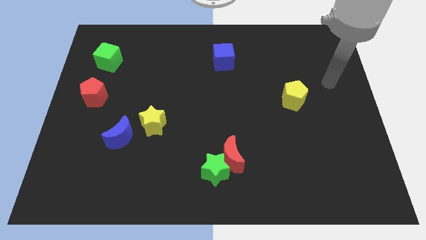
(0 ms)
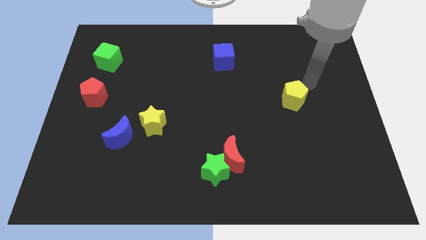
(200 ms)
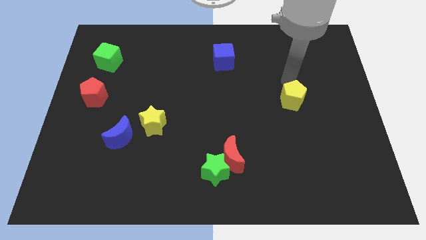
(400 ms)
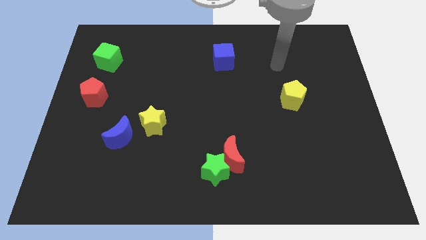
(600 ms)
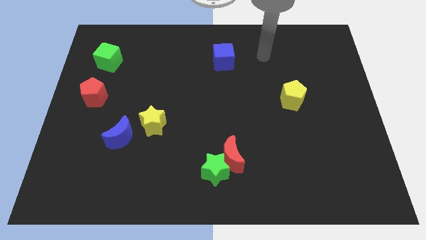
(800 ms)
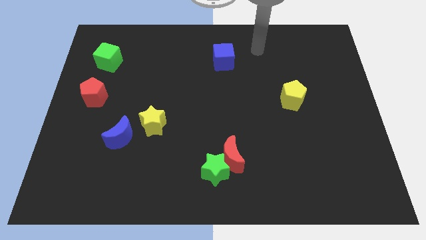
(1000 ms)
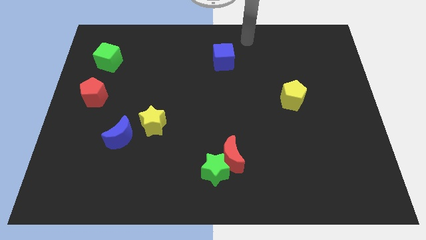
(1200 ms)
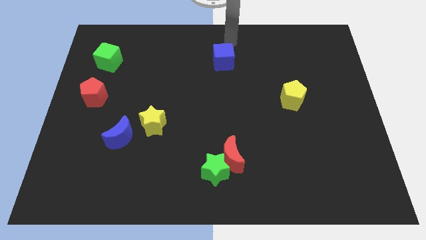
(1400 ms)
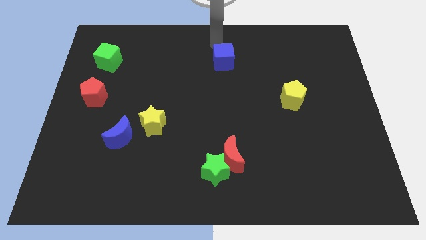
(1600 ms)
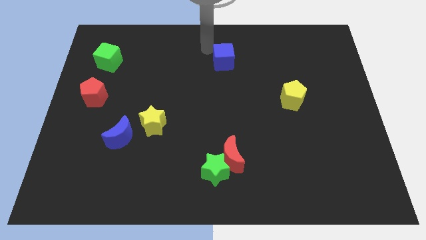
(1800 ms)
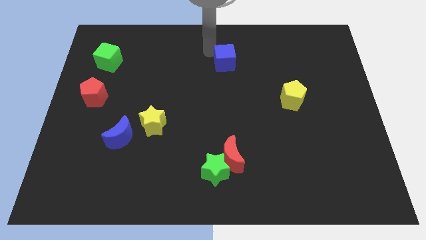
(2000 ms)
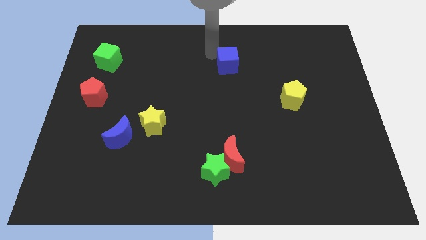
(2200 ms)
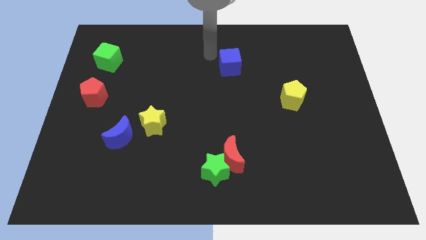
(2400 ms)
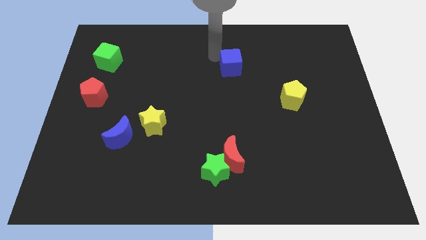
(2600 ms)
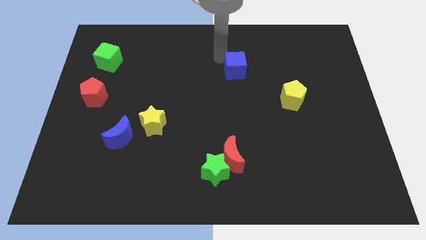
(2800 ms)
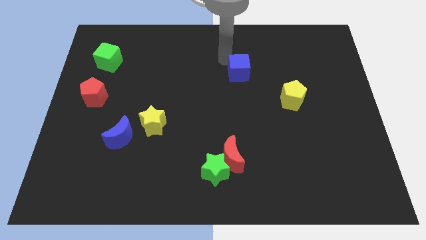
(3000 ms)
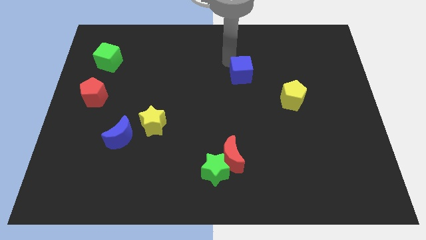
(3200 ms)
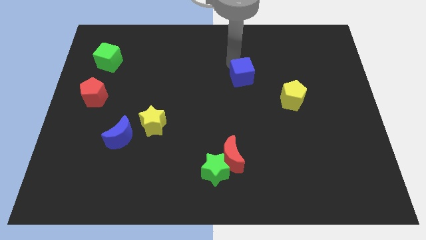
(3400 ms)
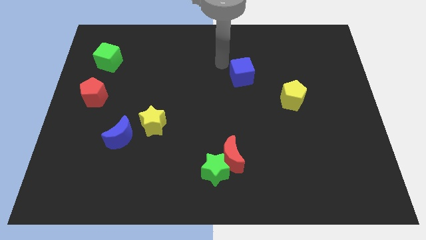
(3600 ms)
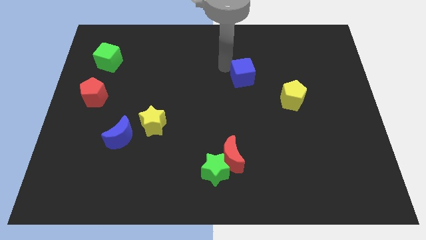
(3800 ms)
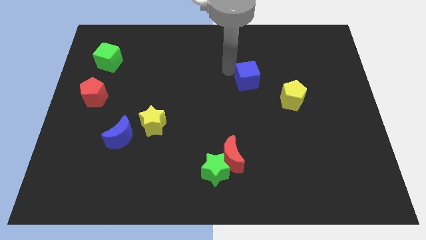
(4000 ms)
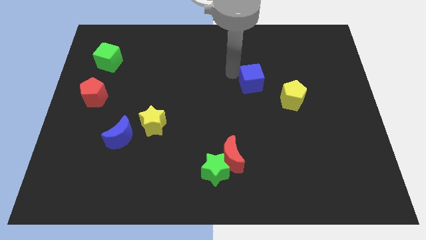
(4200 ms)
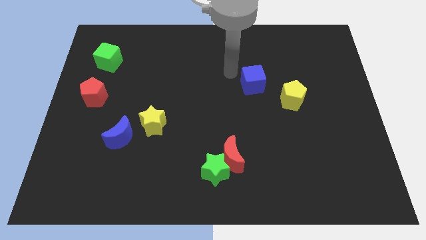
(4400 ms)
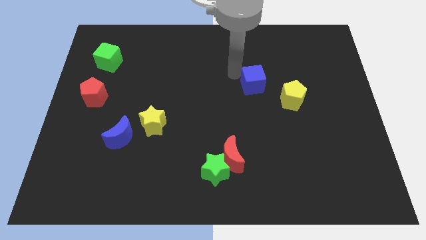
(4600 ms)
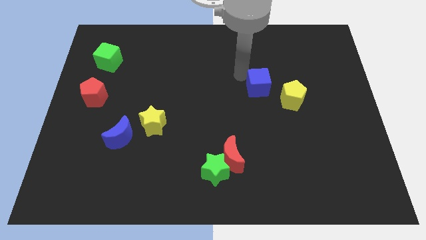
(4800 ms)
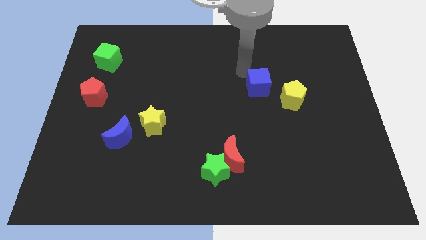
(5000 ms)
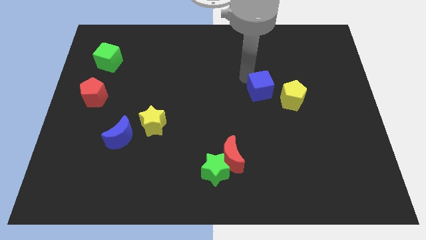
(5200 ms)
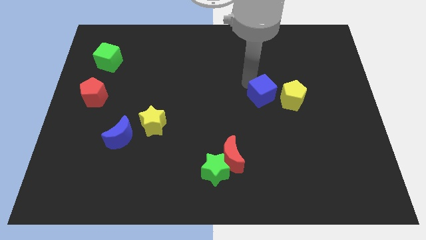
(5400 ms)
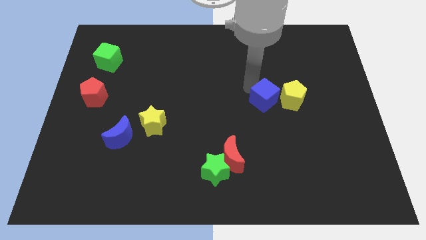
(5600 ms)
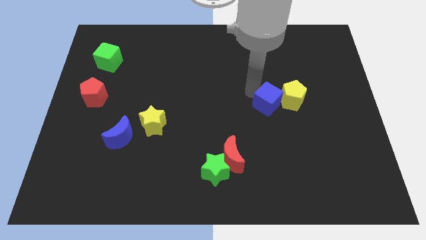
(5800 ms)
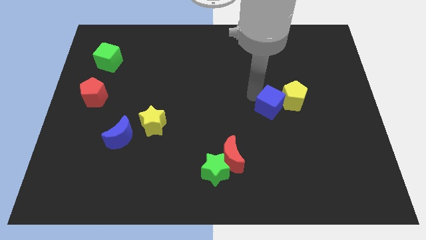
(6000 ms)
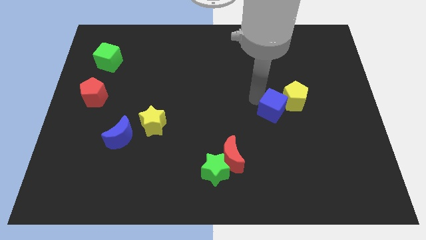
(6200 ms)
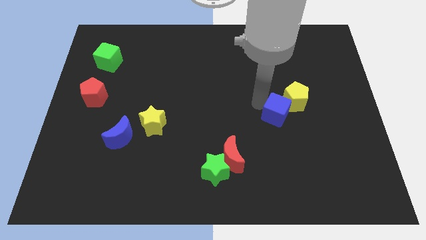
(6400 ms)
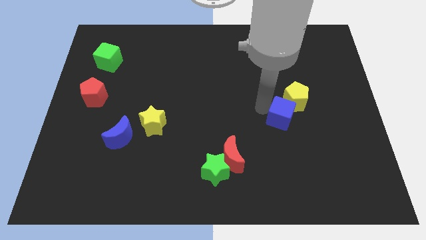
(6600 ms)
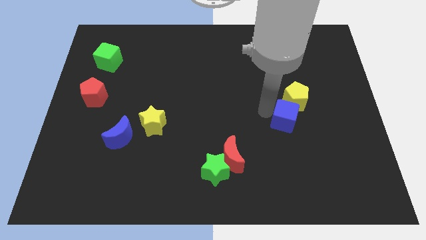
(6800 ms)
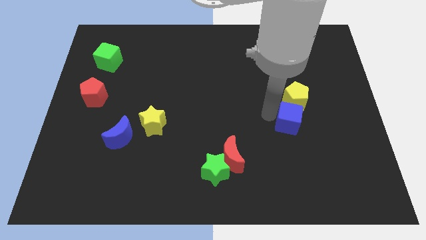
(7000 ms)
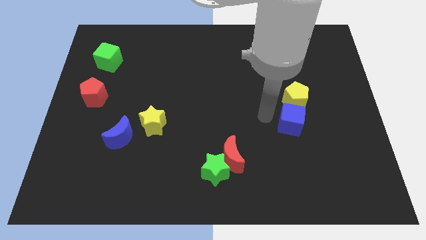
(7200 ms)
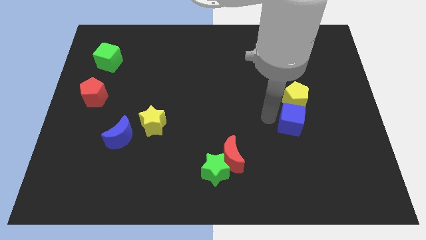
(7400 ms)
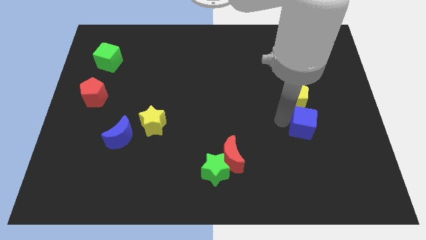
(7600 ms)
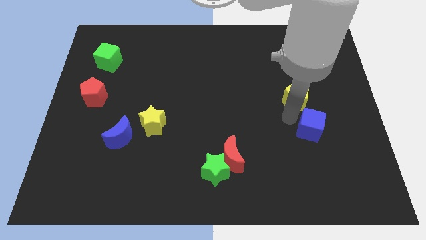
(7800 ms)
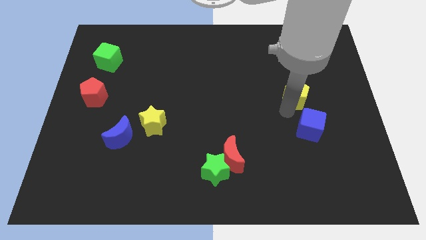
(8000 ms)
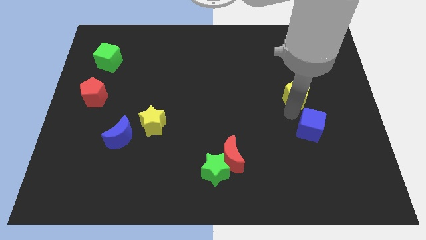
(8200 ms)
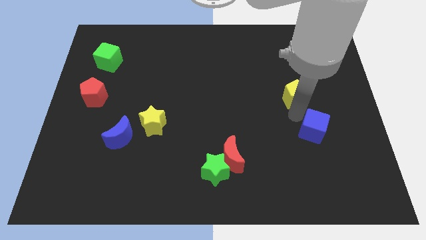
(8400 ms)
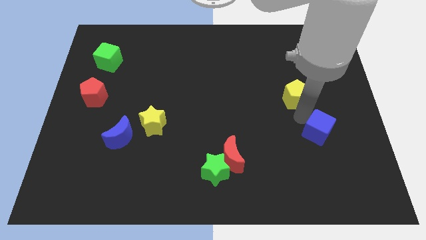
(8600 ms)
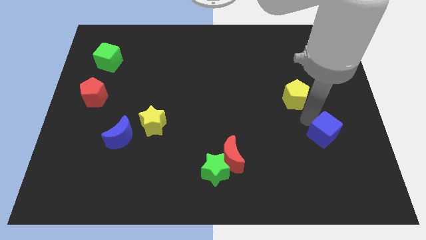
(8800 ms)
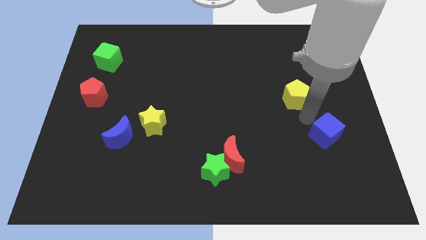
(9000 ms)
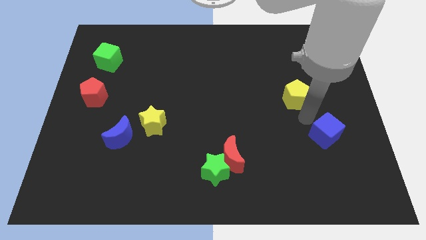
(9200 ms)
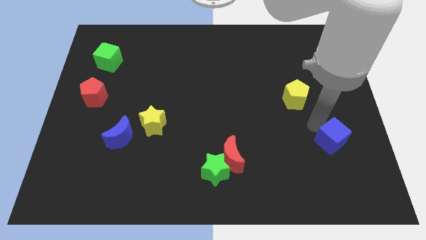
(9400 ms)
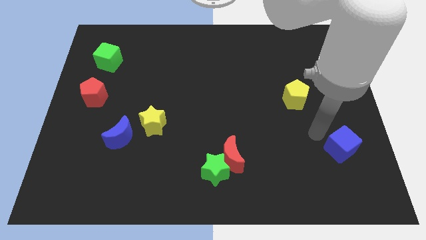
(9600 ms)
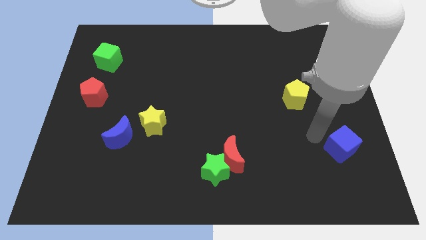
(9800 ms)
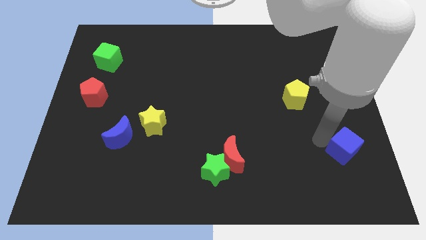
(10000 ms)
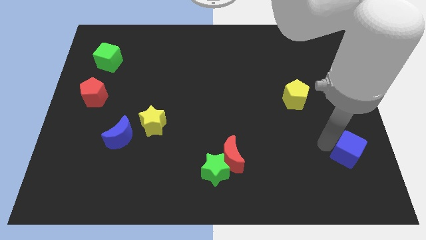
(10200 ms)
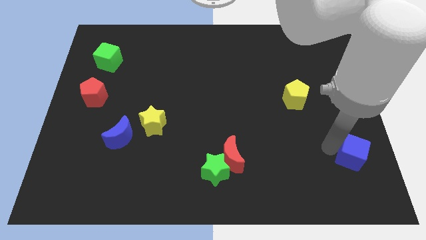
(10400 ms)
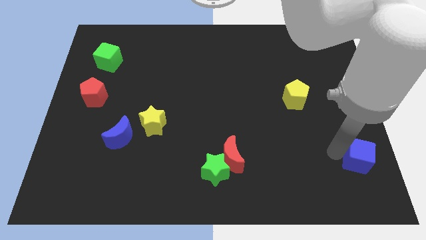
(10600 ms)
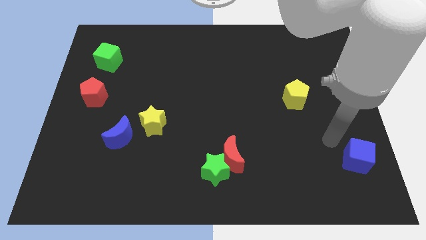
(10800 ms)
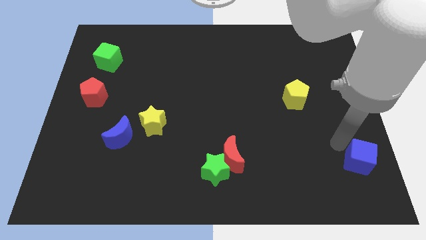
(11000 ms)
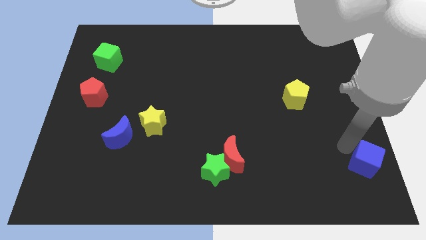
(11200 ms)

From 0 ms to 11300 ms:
slide the blue cube to the bottom right

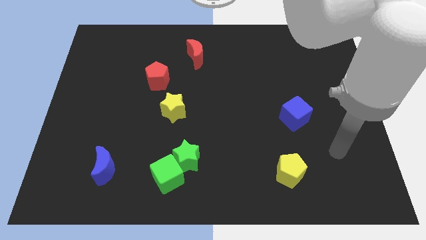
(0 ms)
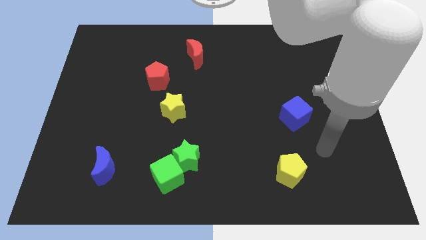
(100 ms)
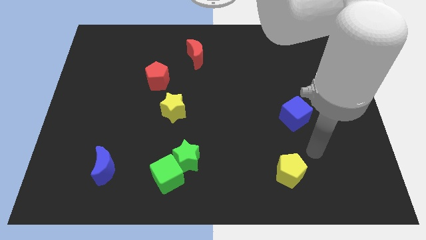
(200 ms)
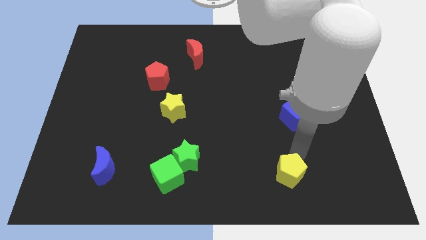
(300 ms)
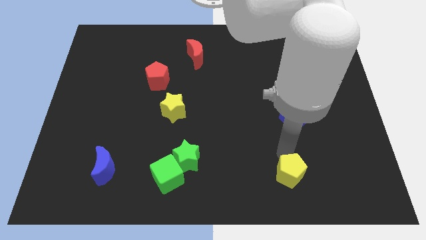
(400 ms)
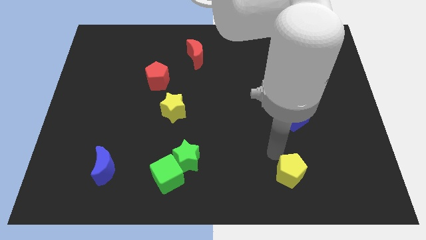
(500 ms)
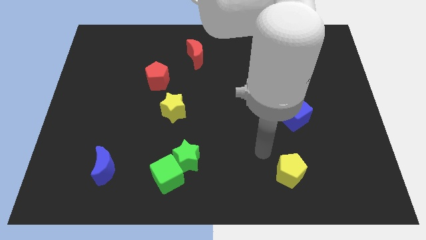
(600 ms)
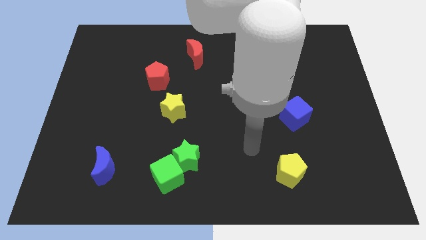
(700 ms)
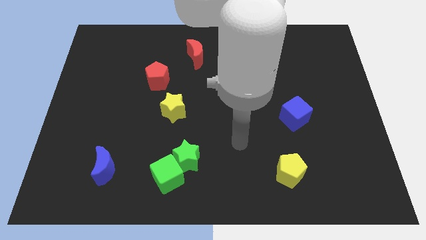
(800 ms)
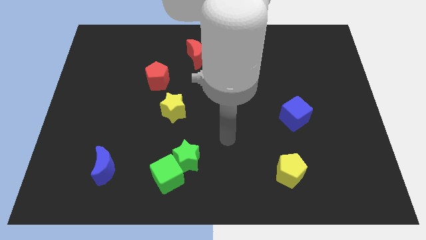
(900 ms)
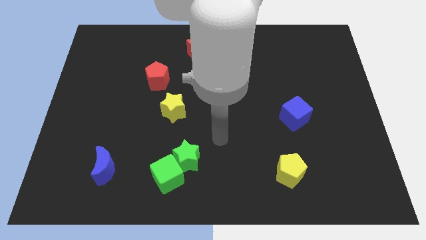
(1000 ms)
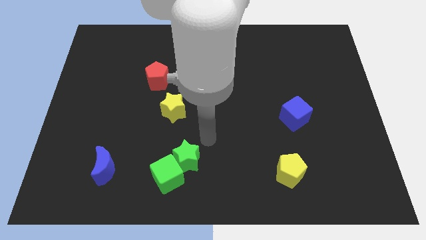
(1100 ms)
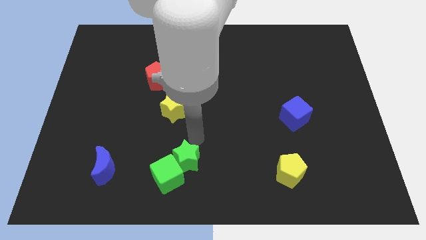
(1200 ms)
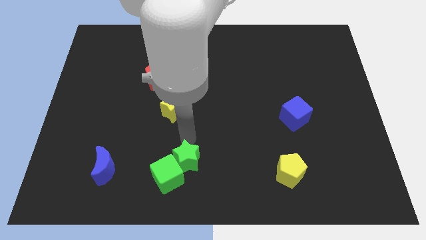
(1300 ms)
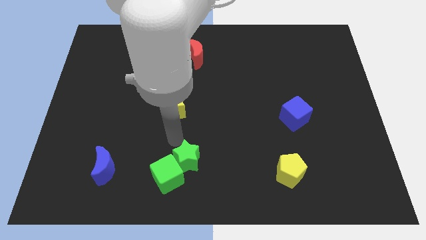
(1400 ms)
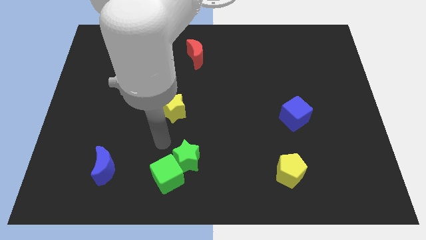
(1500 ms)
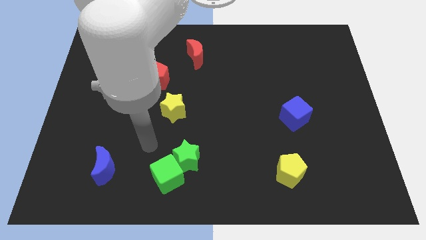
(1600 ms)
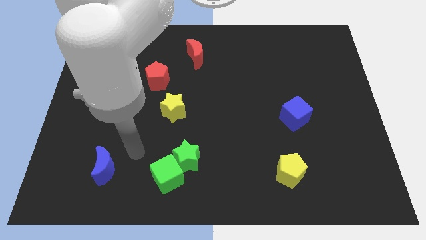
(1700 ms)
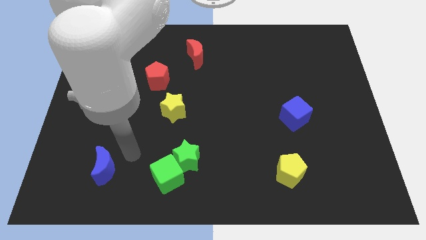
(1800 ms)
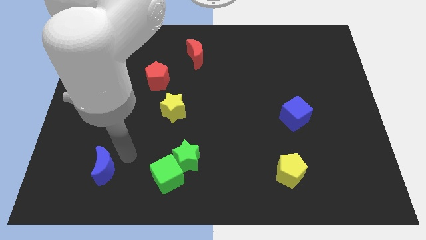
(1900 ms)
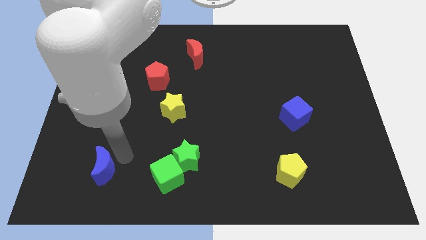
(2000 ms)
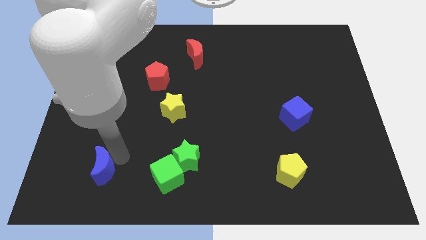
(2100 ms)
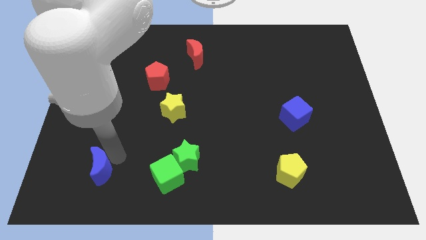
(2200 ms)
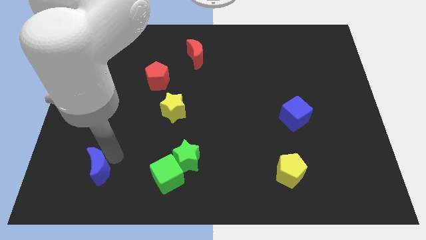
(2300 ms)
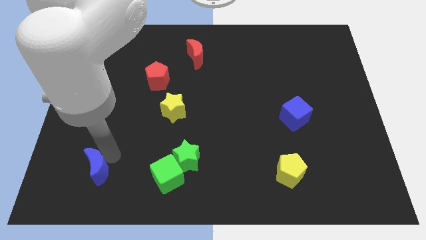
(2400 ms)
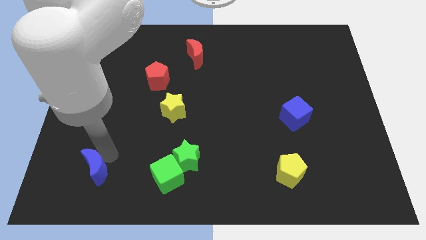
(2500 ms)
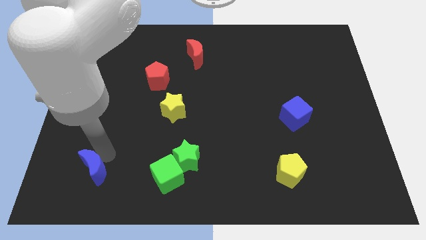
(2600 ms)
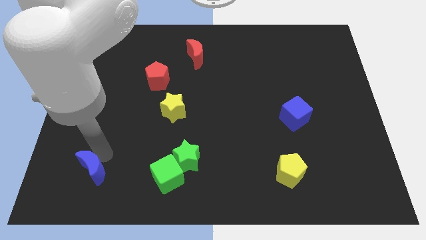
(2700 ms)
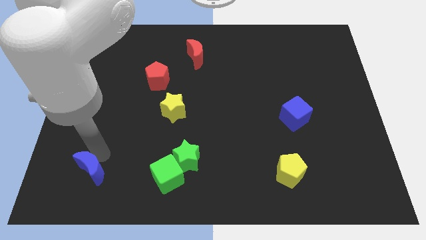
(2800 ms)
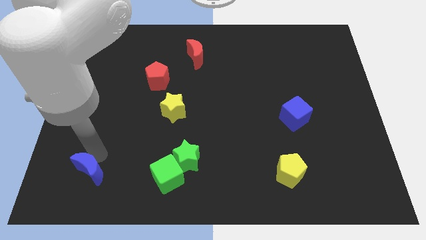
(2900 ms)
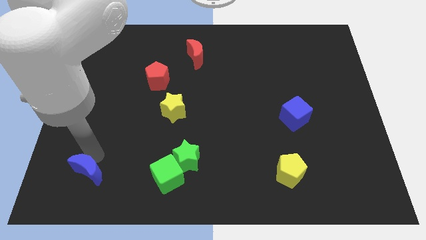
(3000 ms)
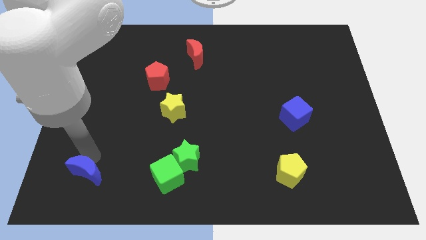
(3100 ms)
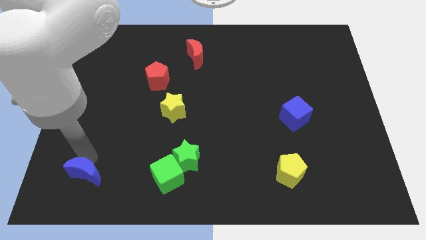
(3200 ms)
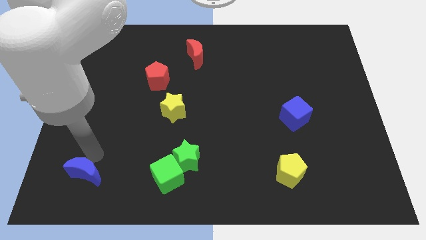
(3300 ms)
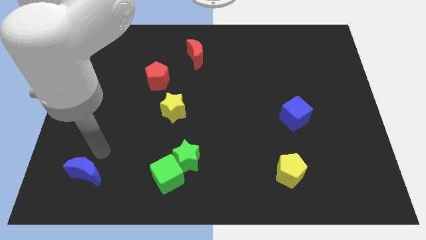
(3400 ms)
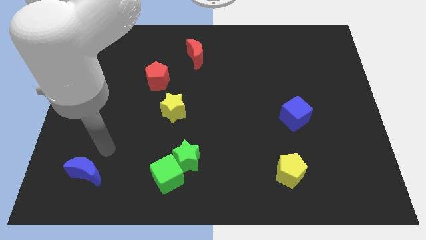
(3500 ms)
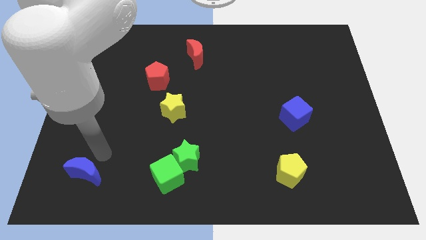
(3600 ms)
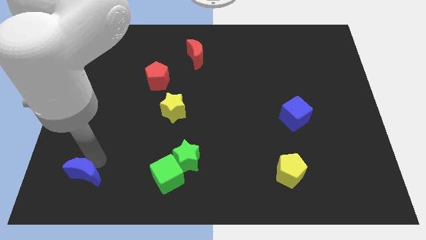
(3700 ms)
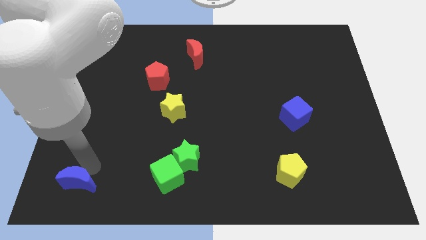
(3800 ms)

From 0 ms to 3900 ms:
put the blue moon to the bottom left corner
